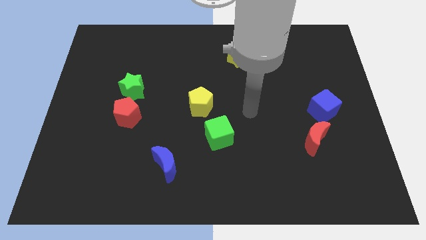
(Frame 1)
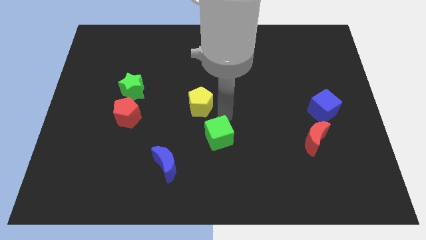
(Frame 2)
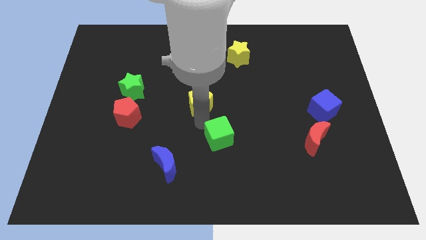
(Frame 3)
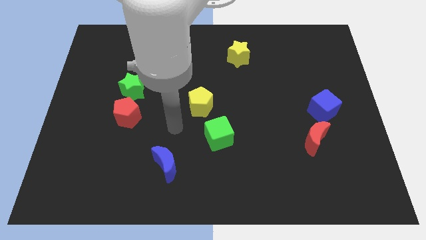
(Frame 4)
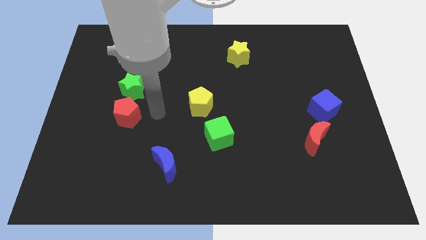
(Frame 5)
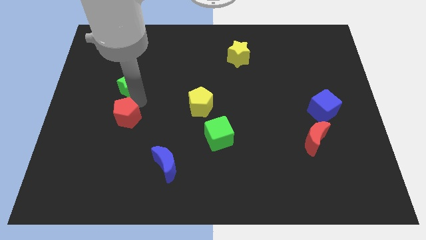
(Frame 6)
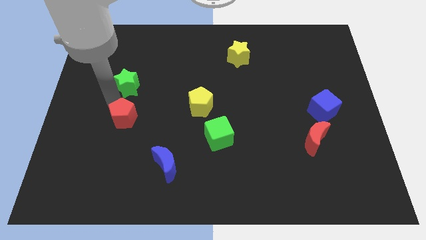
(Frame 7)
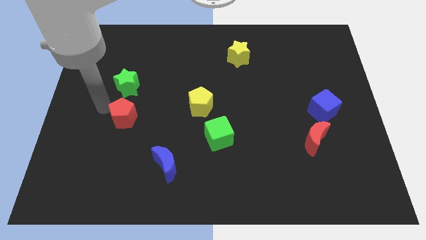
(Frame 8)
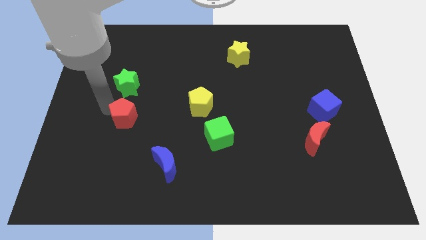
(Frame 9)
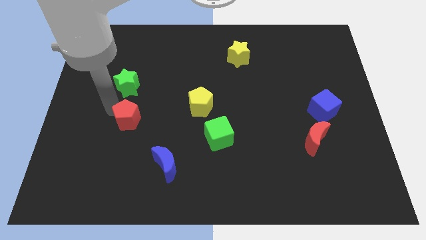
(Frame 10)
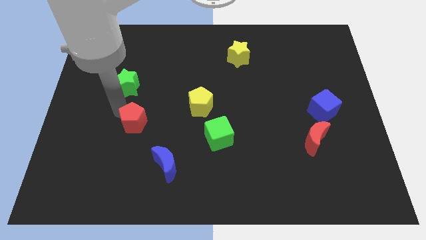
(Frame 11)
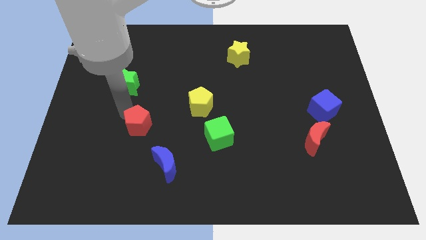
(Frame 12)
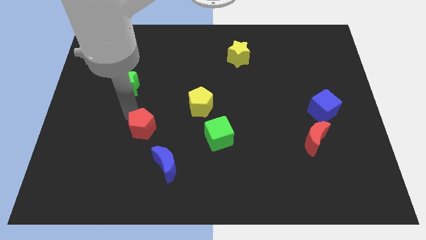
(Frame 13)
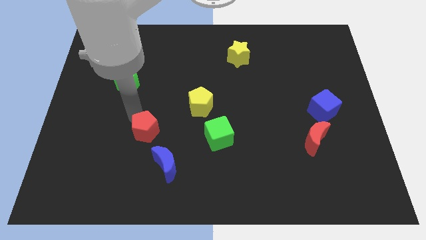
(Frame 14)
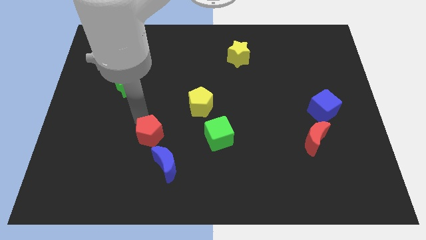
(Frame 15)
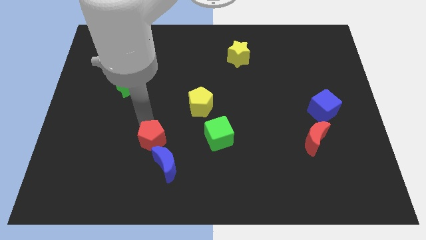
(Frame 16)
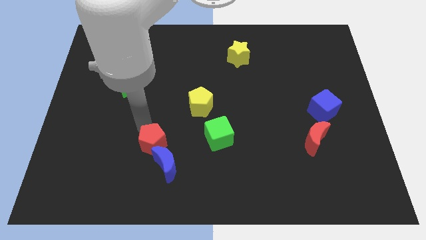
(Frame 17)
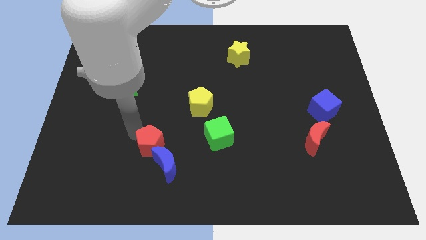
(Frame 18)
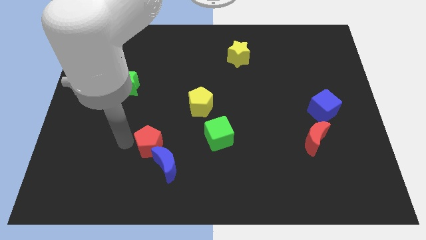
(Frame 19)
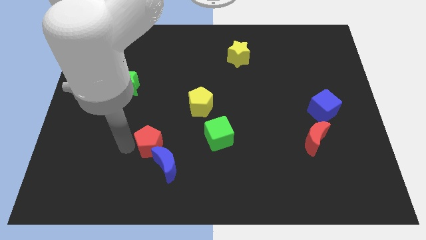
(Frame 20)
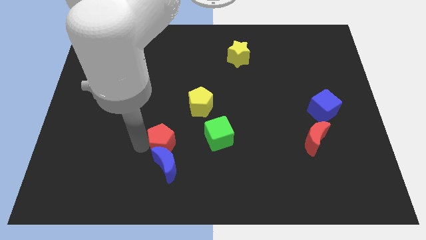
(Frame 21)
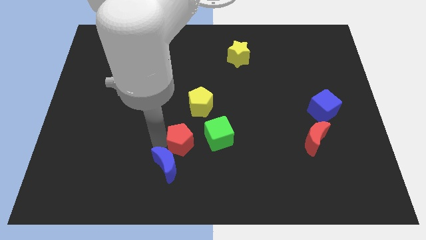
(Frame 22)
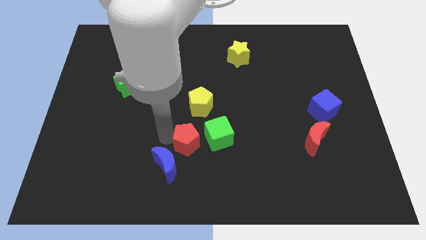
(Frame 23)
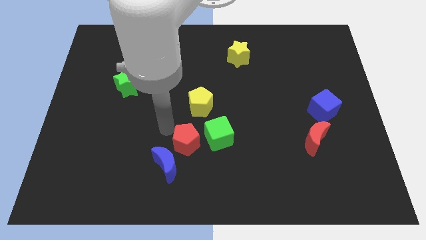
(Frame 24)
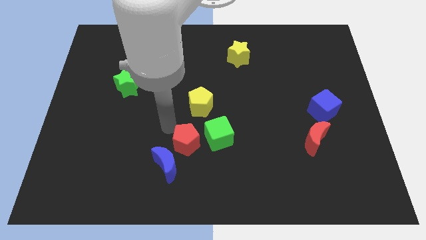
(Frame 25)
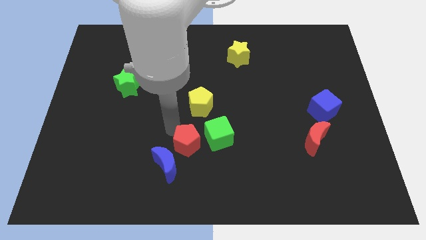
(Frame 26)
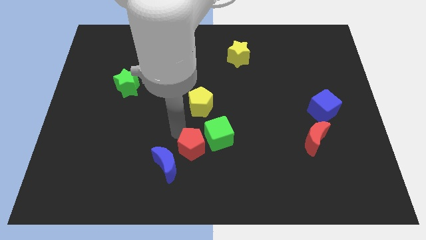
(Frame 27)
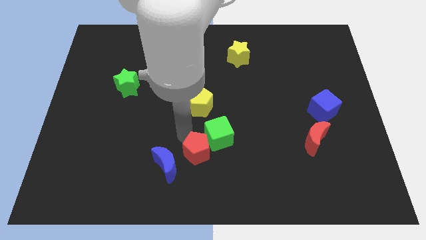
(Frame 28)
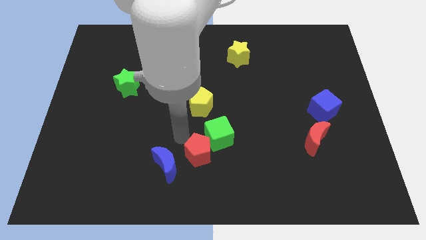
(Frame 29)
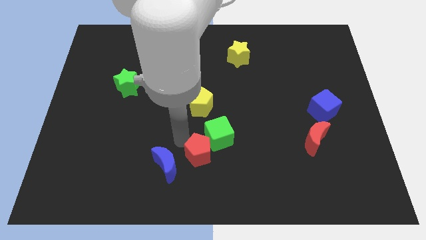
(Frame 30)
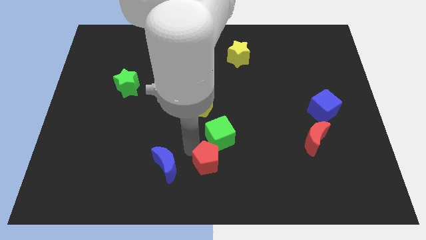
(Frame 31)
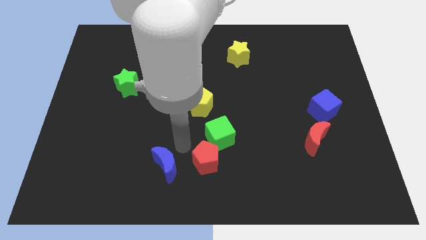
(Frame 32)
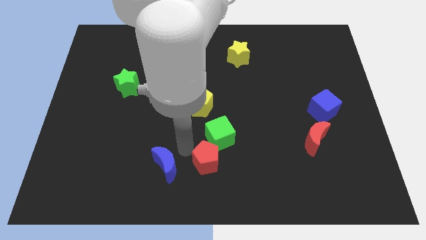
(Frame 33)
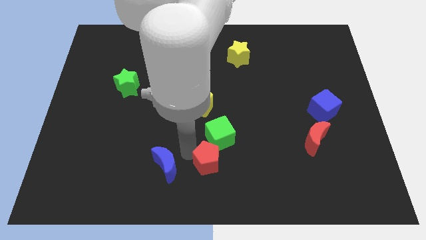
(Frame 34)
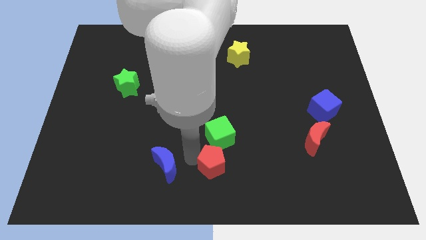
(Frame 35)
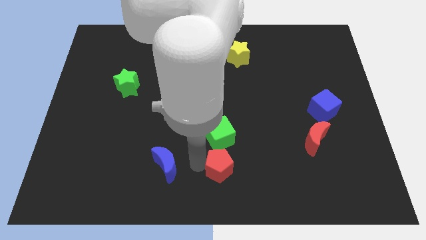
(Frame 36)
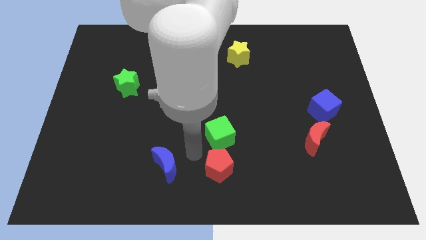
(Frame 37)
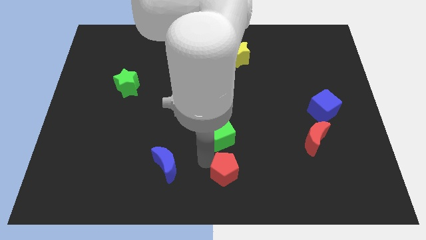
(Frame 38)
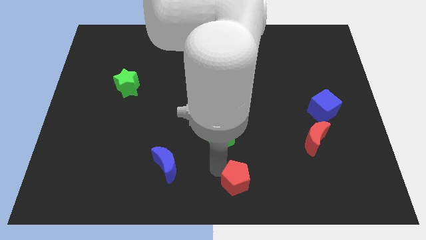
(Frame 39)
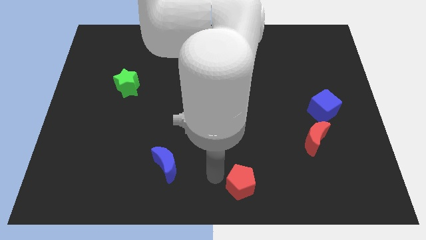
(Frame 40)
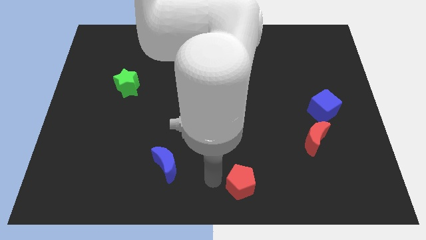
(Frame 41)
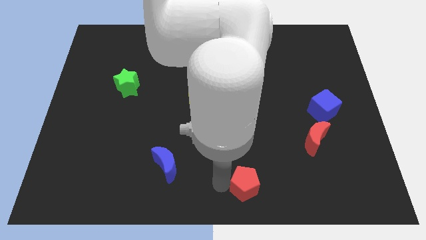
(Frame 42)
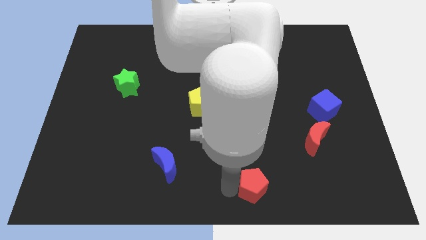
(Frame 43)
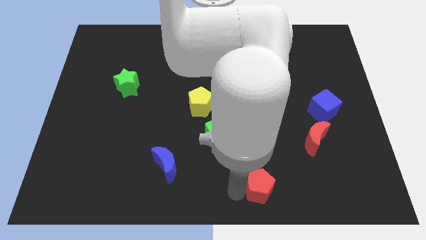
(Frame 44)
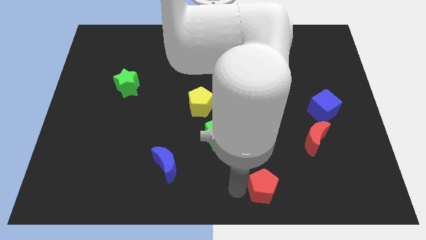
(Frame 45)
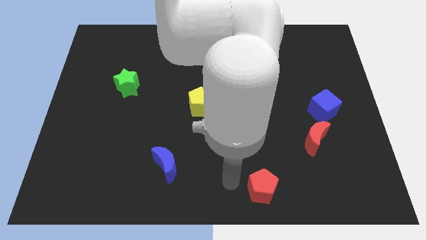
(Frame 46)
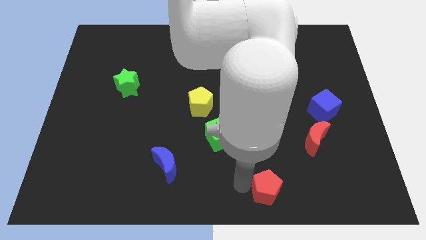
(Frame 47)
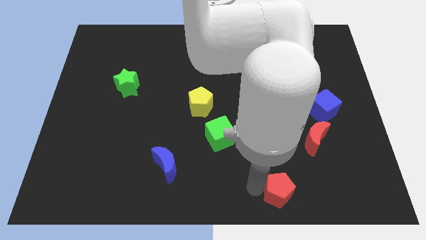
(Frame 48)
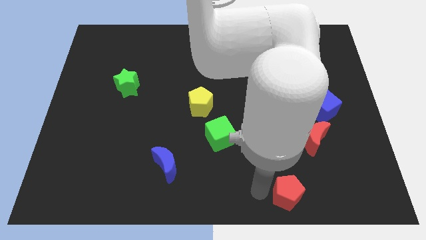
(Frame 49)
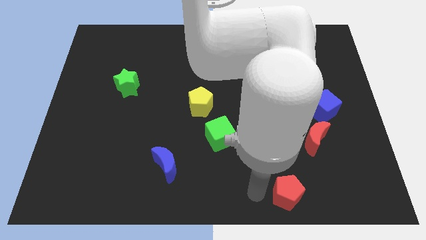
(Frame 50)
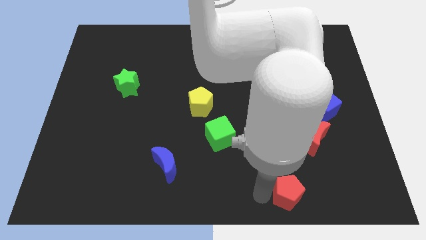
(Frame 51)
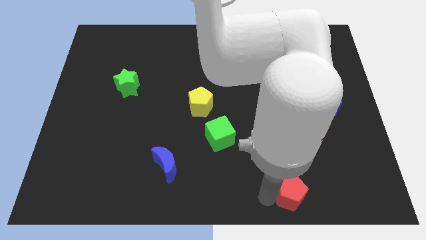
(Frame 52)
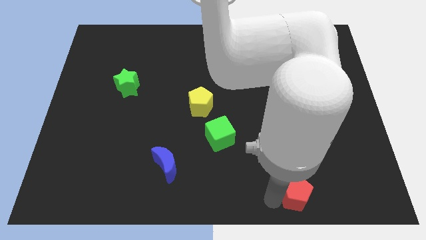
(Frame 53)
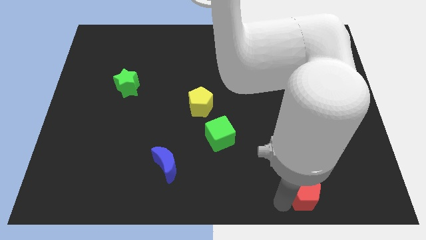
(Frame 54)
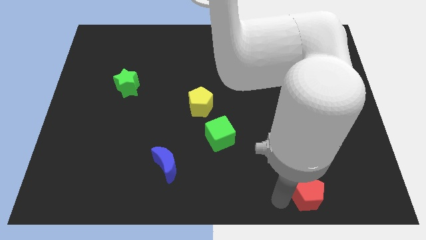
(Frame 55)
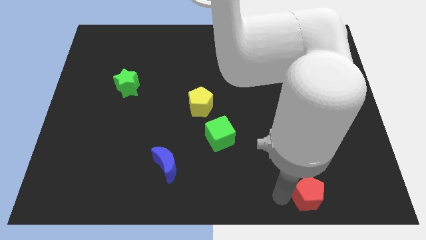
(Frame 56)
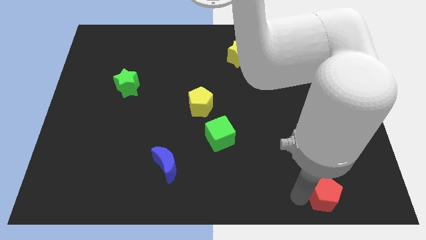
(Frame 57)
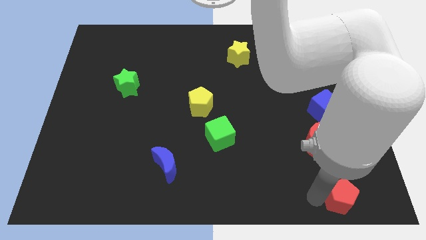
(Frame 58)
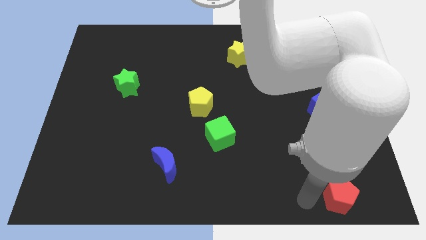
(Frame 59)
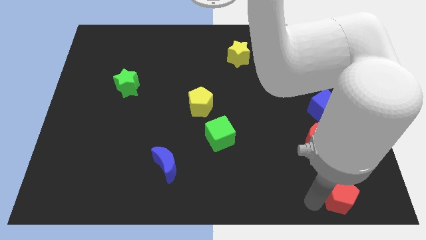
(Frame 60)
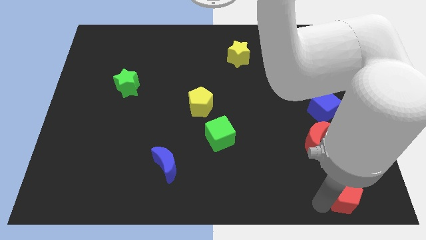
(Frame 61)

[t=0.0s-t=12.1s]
slide the red pentagon to the bottom right corner

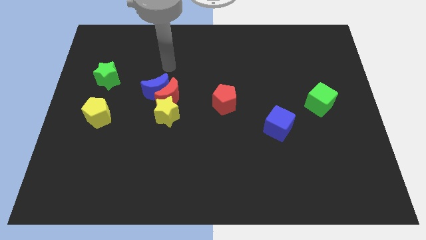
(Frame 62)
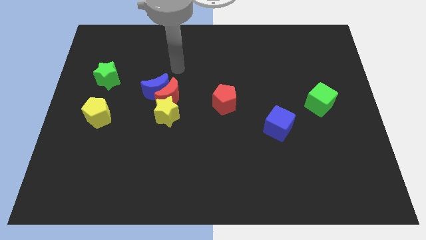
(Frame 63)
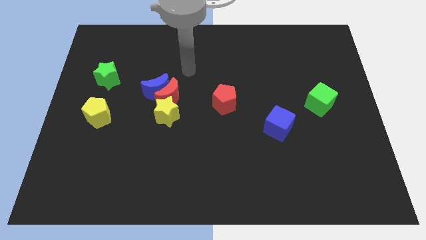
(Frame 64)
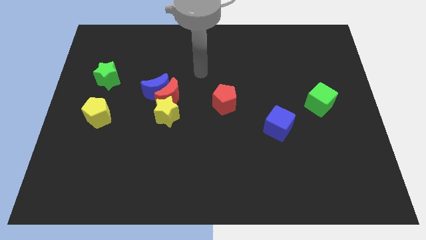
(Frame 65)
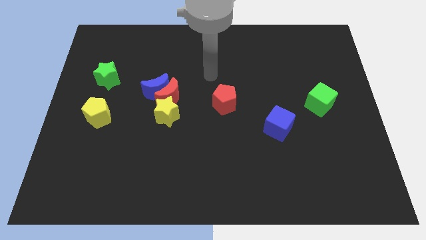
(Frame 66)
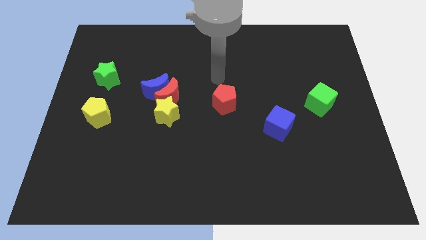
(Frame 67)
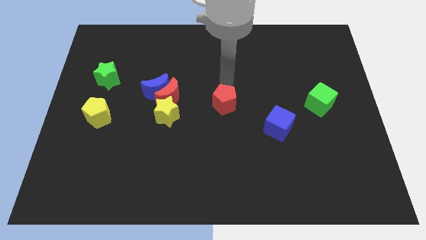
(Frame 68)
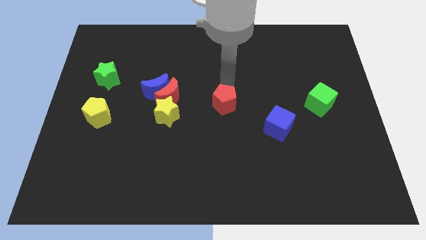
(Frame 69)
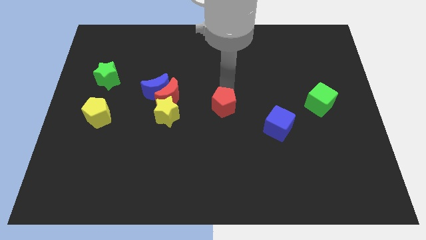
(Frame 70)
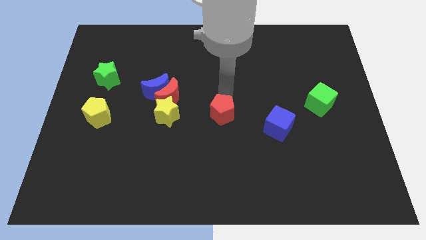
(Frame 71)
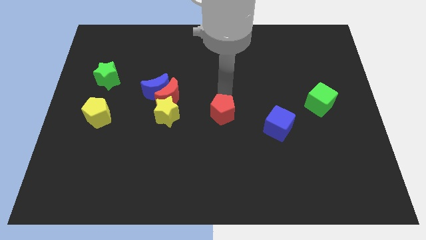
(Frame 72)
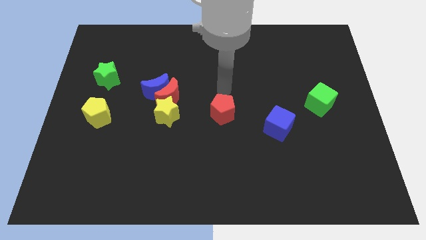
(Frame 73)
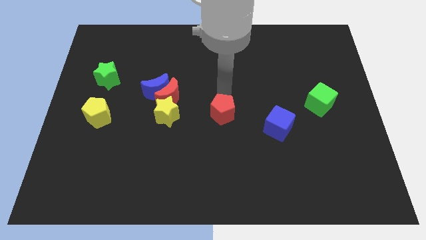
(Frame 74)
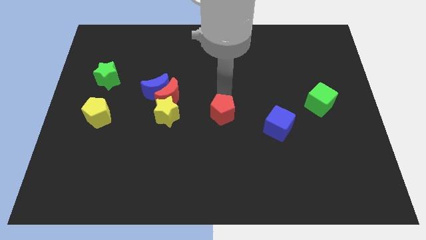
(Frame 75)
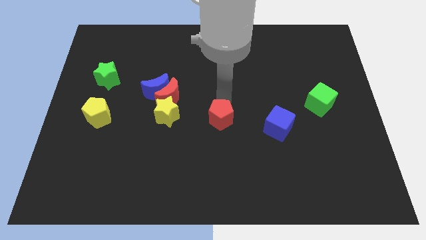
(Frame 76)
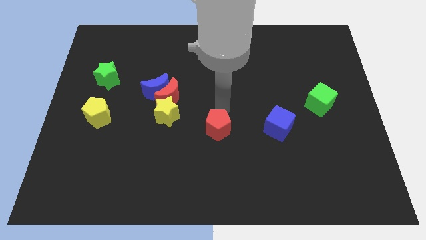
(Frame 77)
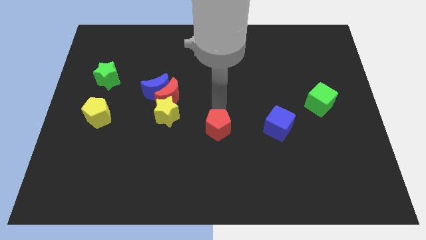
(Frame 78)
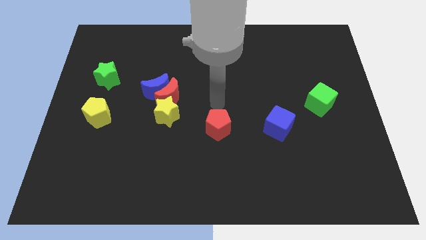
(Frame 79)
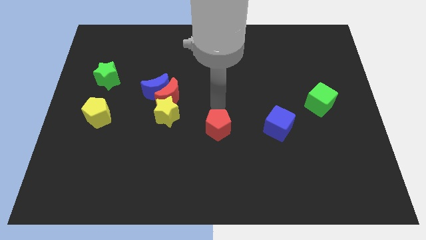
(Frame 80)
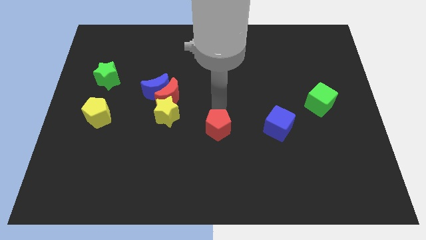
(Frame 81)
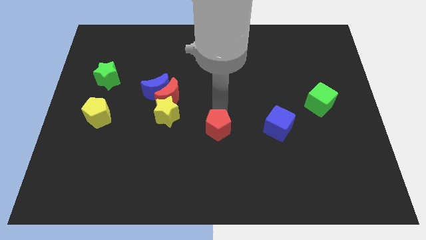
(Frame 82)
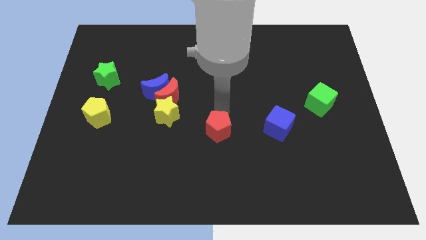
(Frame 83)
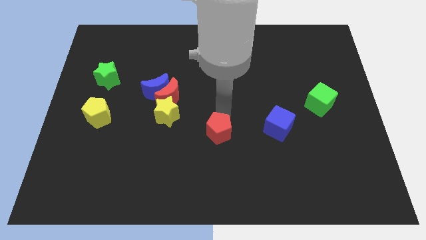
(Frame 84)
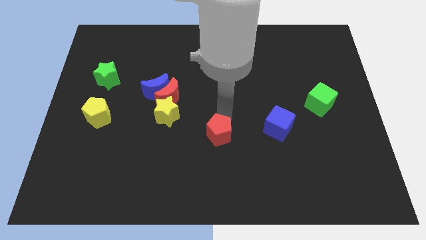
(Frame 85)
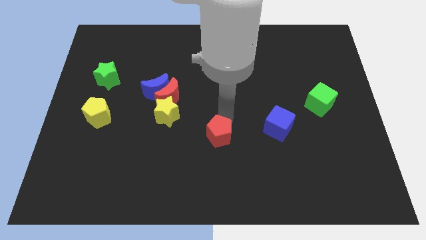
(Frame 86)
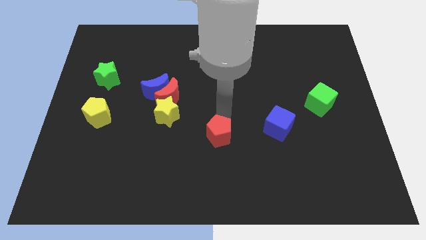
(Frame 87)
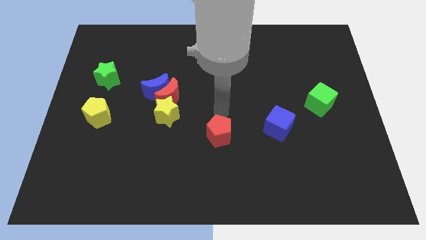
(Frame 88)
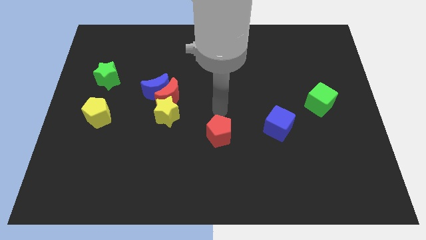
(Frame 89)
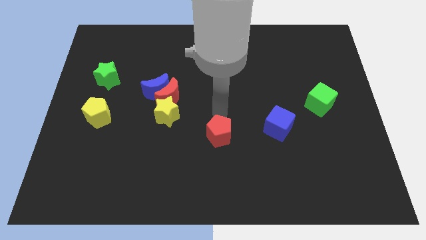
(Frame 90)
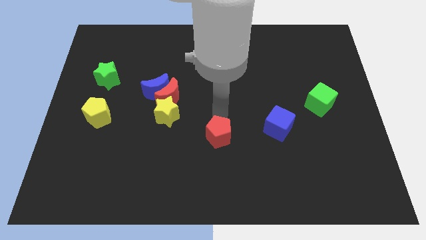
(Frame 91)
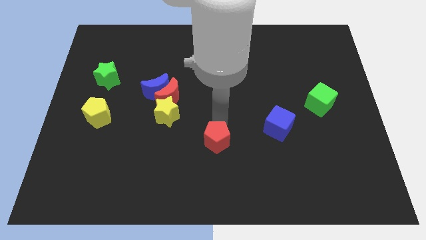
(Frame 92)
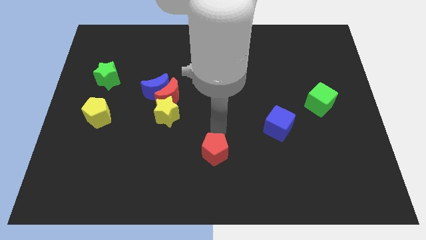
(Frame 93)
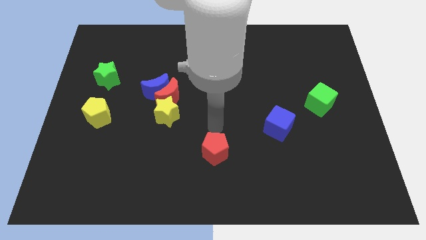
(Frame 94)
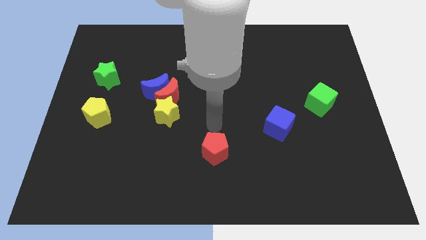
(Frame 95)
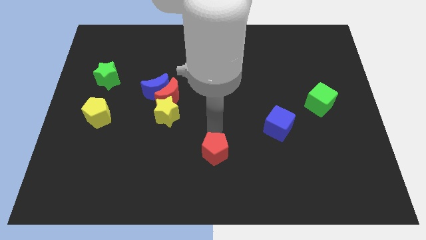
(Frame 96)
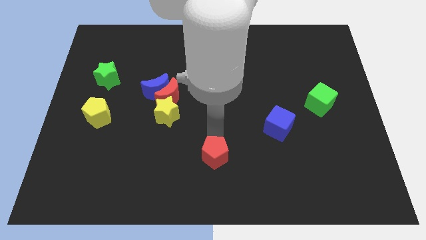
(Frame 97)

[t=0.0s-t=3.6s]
put the red pentagon to the bottom
